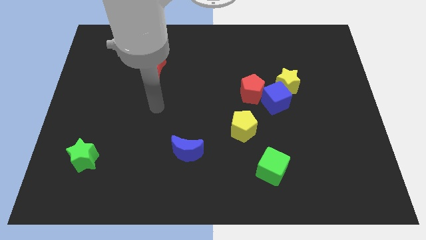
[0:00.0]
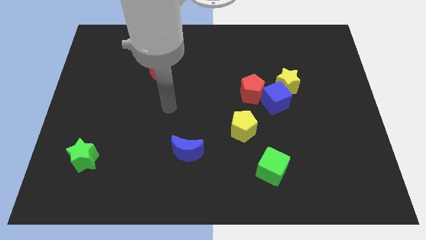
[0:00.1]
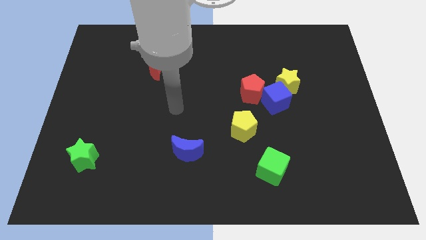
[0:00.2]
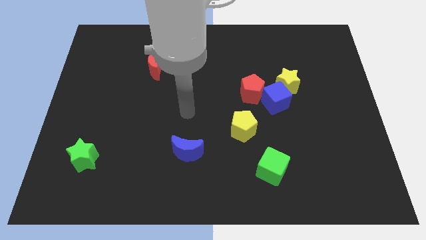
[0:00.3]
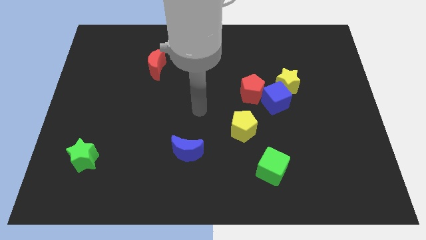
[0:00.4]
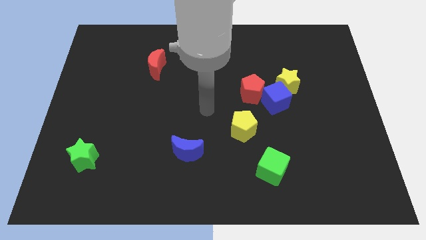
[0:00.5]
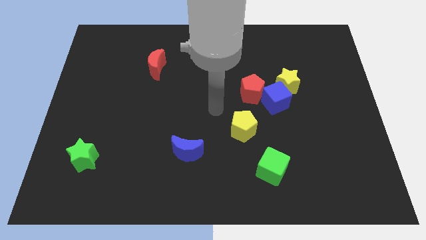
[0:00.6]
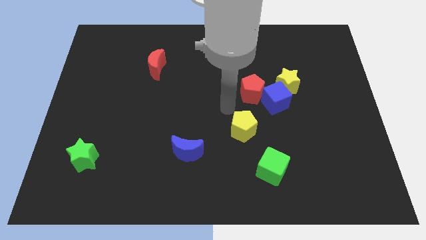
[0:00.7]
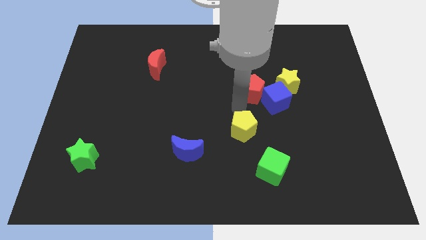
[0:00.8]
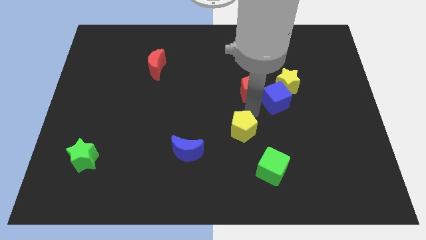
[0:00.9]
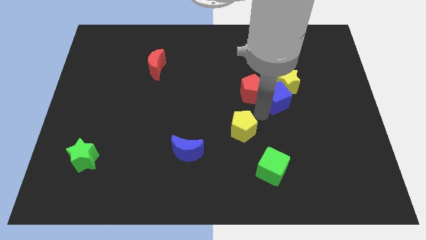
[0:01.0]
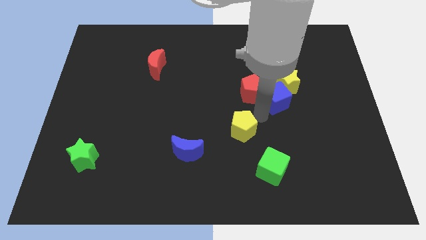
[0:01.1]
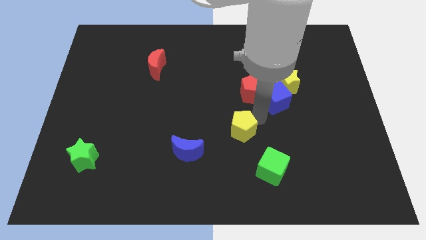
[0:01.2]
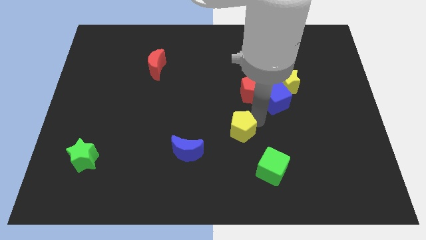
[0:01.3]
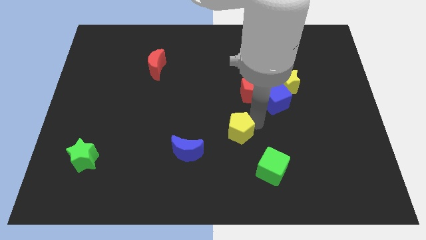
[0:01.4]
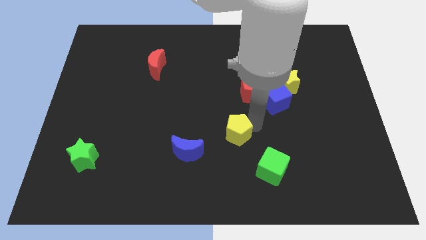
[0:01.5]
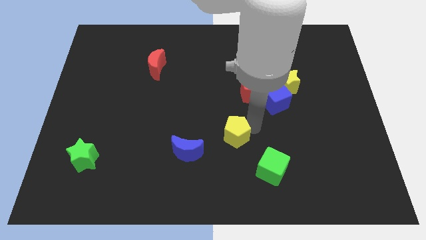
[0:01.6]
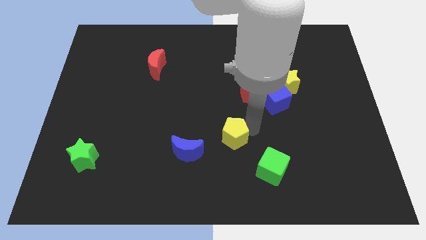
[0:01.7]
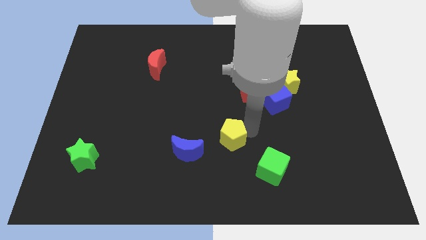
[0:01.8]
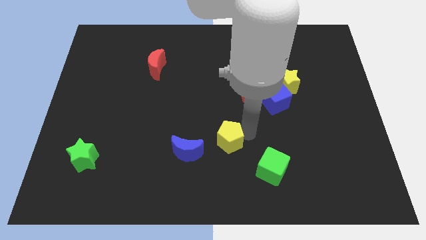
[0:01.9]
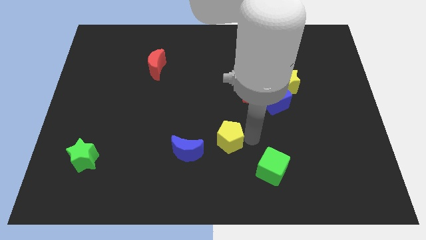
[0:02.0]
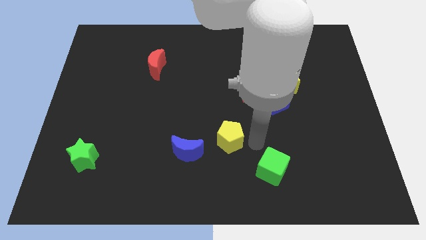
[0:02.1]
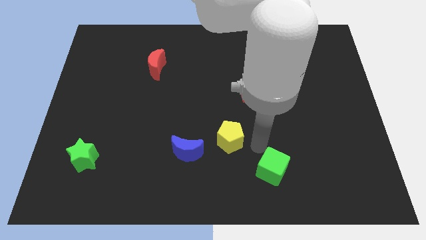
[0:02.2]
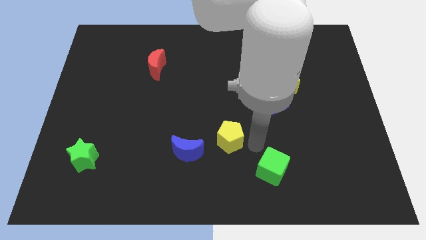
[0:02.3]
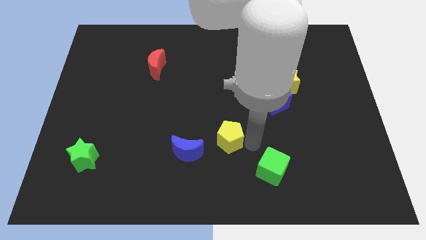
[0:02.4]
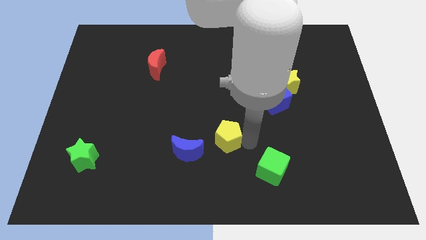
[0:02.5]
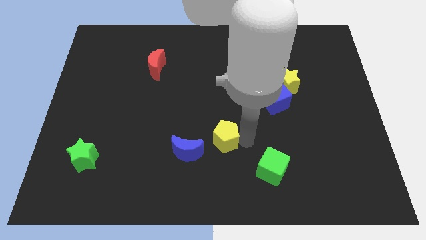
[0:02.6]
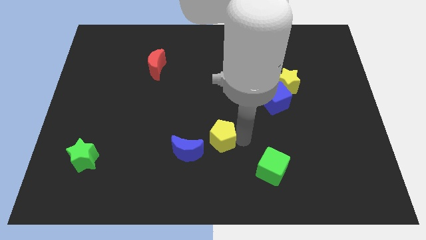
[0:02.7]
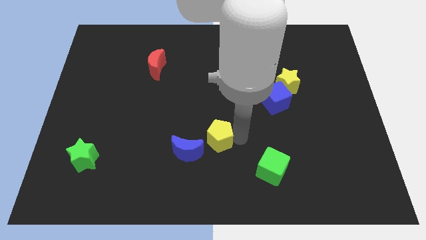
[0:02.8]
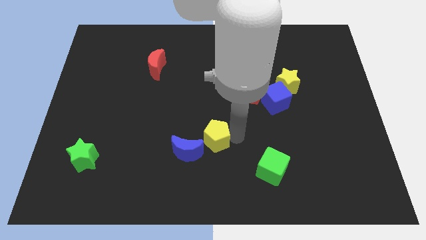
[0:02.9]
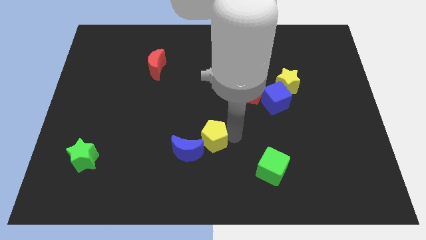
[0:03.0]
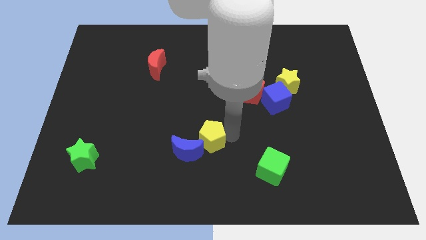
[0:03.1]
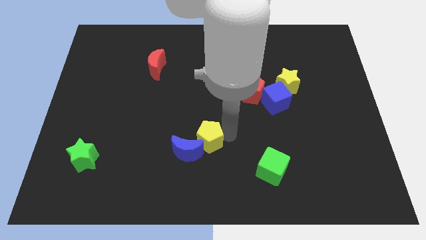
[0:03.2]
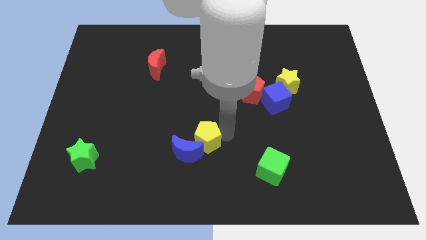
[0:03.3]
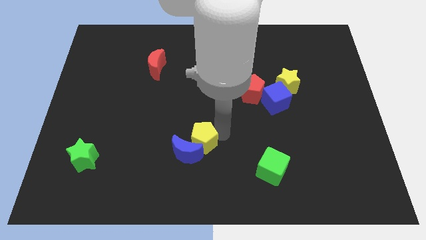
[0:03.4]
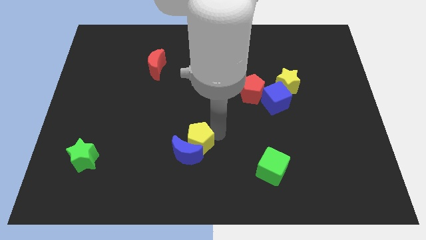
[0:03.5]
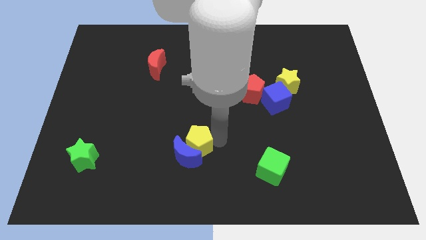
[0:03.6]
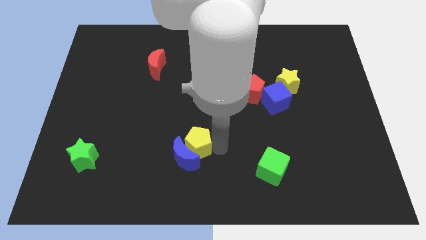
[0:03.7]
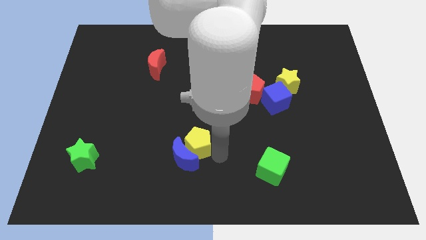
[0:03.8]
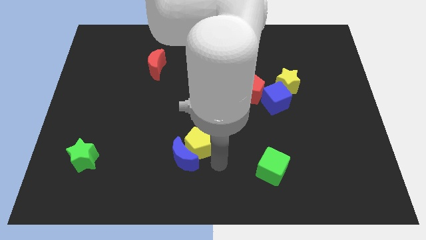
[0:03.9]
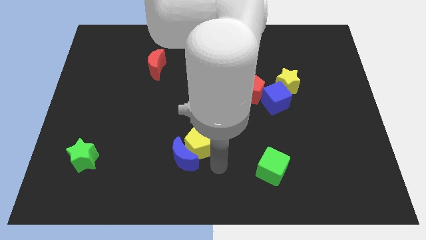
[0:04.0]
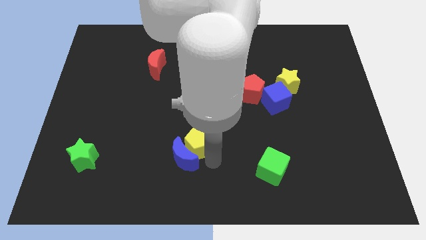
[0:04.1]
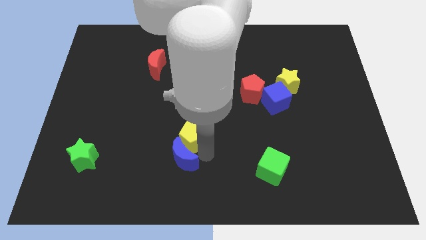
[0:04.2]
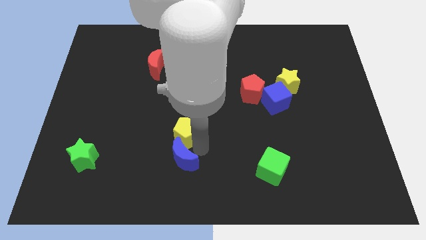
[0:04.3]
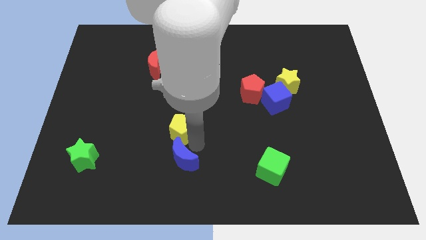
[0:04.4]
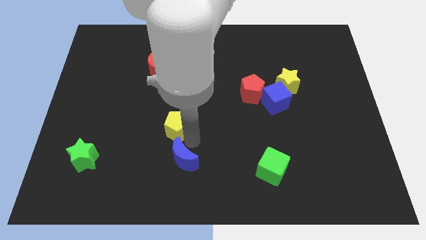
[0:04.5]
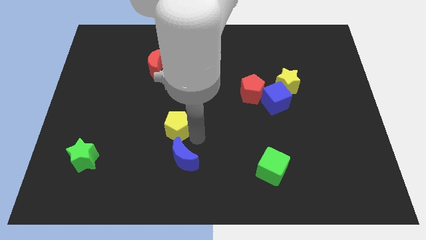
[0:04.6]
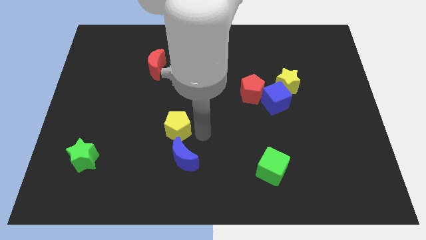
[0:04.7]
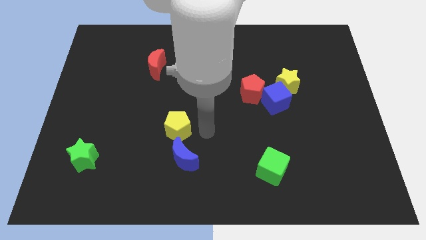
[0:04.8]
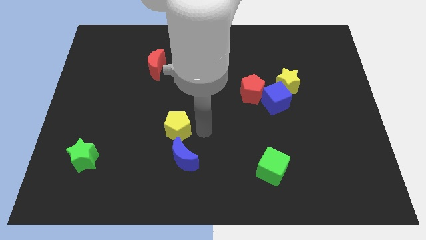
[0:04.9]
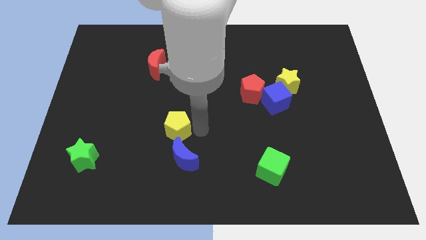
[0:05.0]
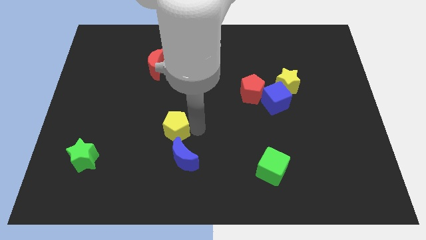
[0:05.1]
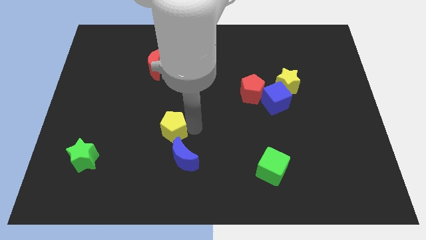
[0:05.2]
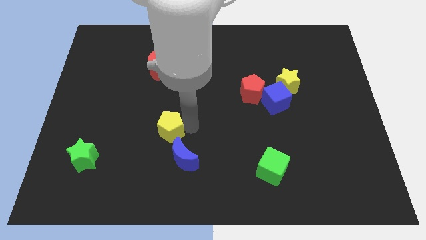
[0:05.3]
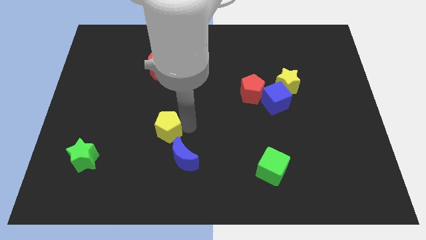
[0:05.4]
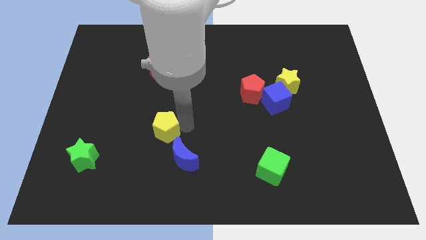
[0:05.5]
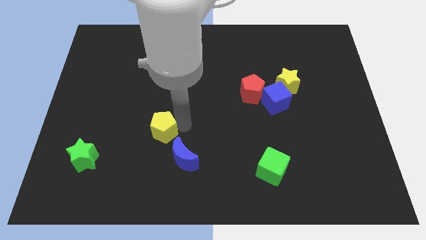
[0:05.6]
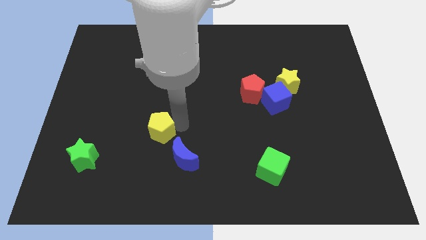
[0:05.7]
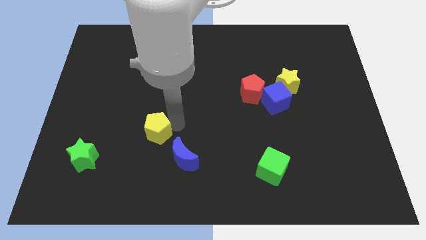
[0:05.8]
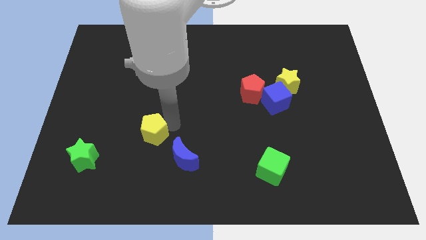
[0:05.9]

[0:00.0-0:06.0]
slide the yellow pentagon left

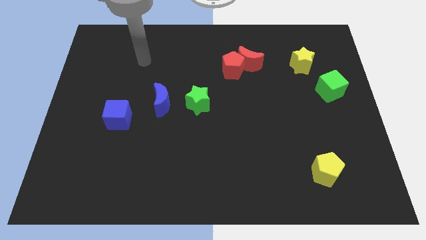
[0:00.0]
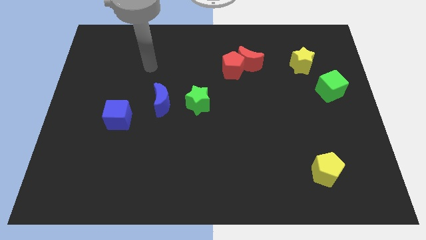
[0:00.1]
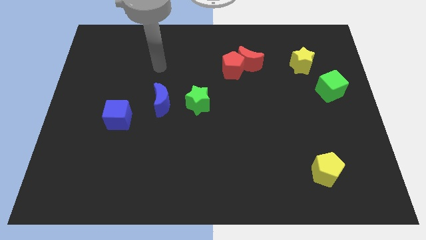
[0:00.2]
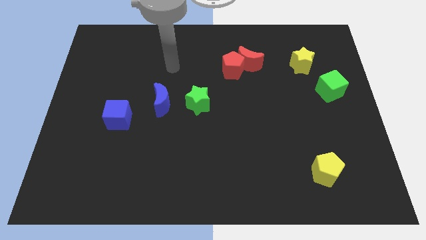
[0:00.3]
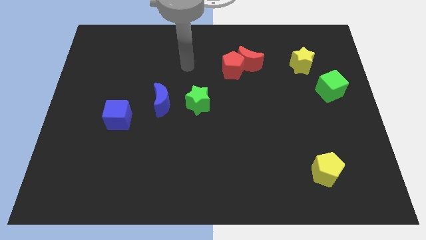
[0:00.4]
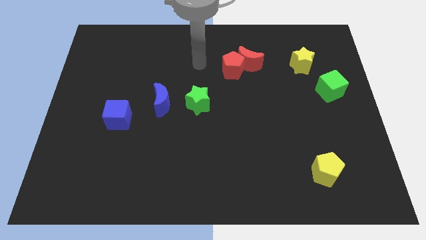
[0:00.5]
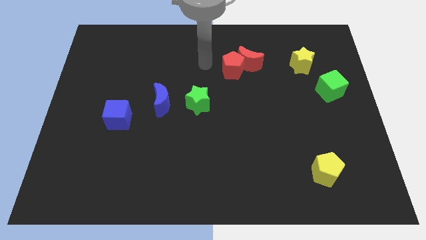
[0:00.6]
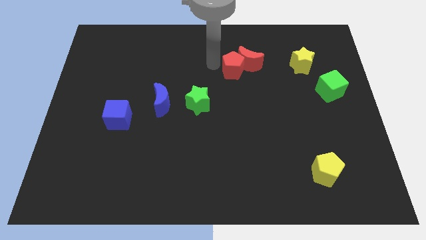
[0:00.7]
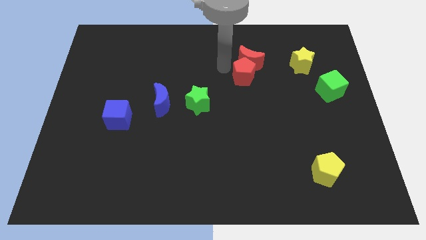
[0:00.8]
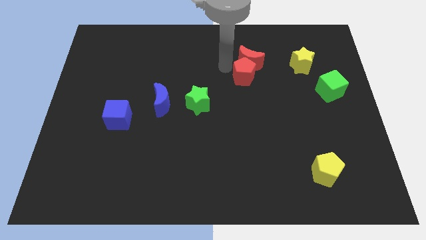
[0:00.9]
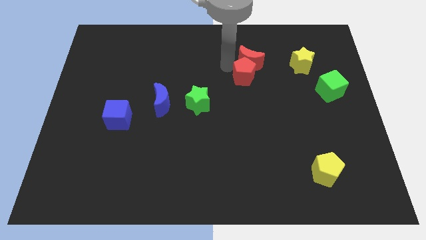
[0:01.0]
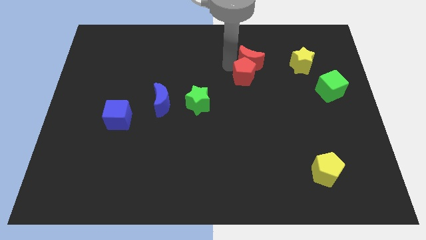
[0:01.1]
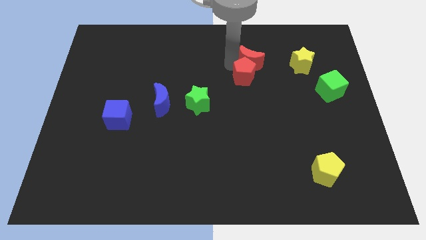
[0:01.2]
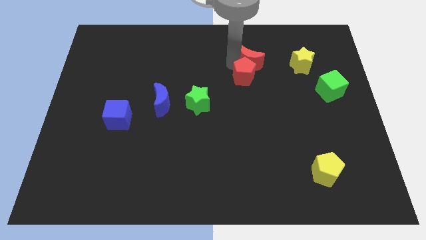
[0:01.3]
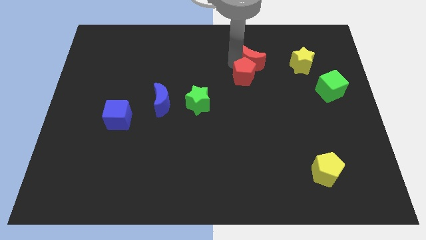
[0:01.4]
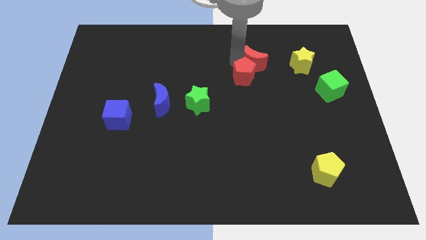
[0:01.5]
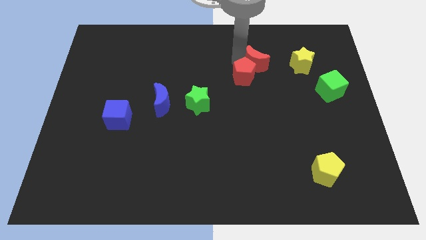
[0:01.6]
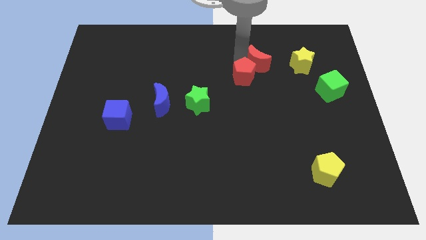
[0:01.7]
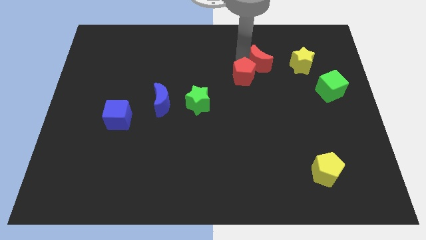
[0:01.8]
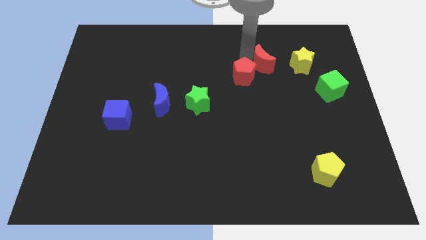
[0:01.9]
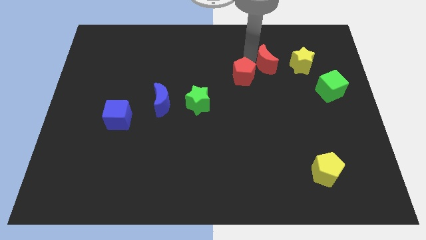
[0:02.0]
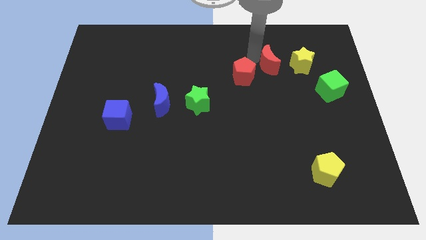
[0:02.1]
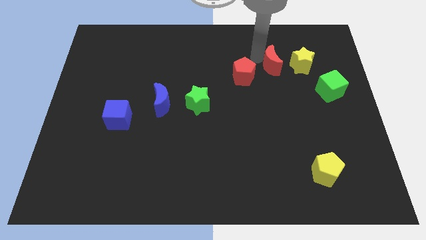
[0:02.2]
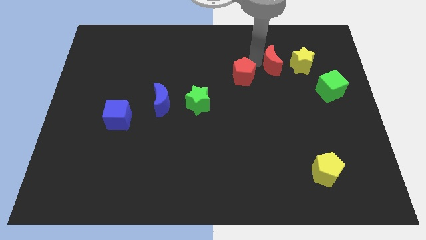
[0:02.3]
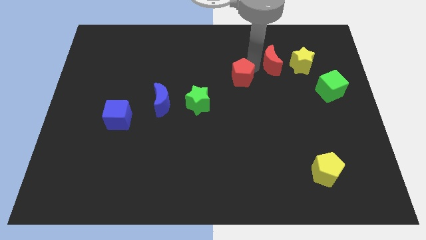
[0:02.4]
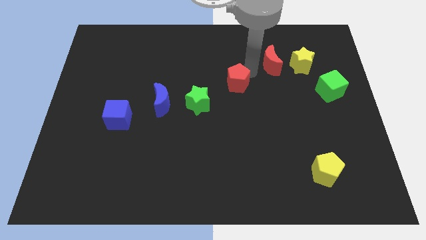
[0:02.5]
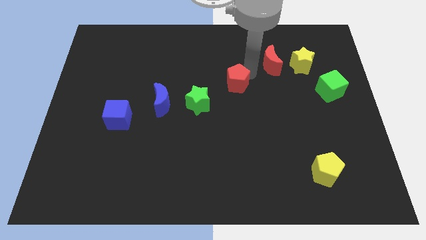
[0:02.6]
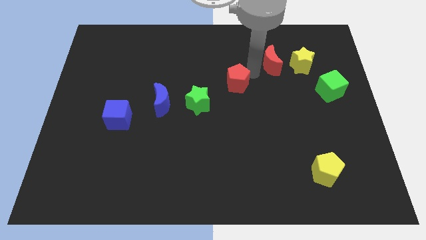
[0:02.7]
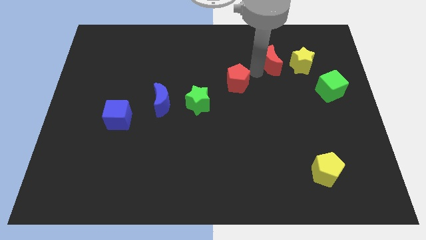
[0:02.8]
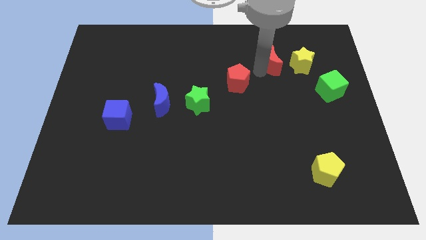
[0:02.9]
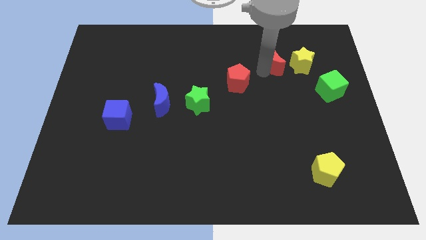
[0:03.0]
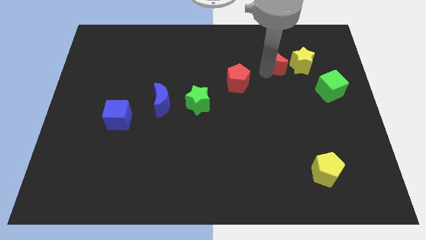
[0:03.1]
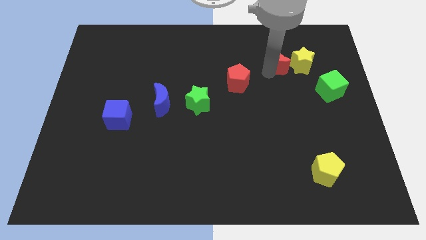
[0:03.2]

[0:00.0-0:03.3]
move the red moon right slightly
